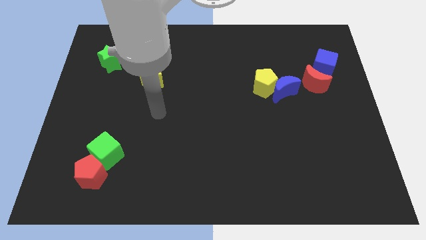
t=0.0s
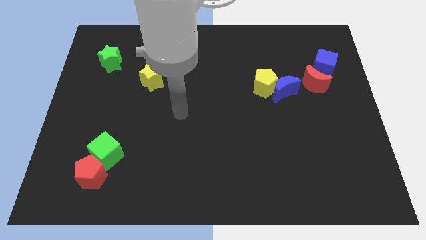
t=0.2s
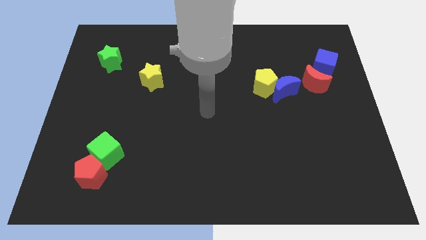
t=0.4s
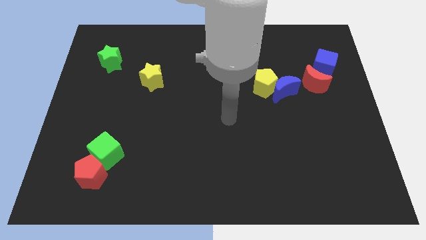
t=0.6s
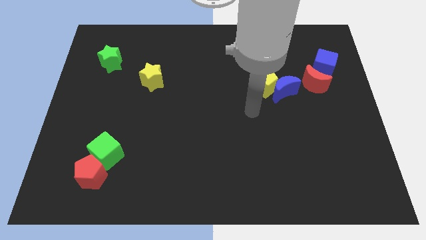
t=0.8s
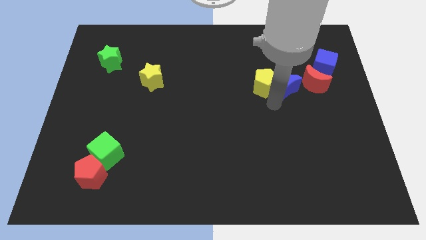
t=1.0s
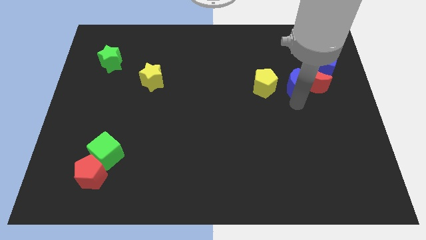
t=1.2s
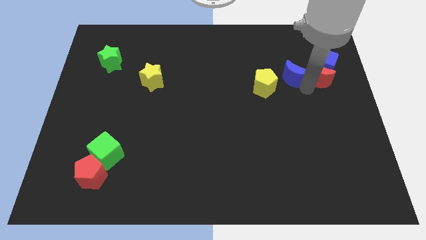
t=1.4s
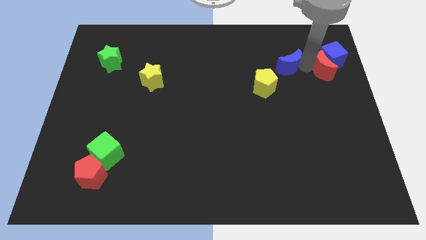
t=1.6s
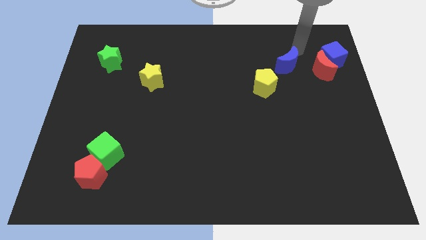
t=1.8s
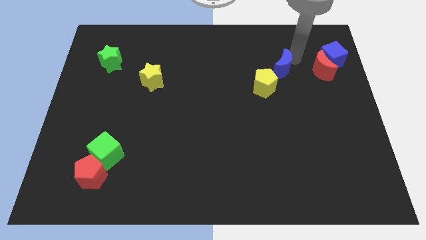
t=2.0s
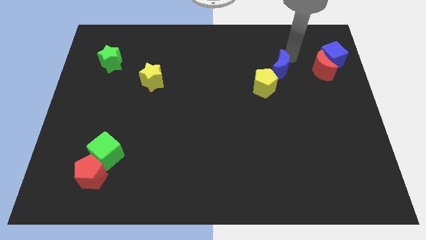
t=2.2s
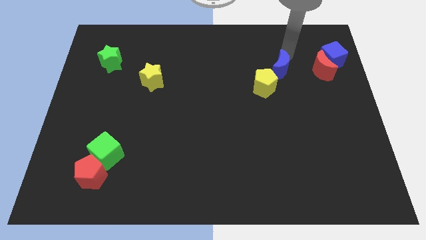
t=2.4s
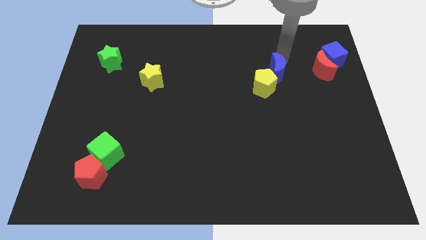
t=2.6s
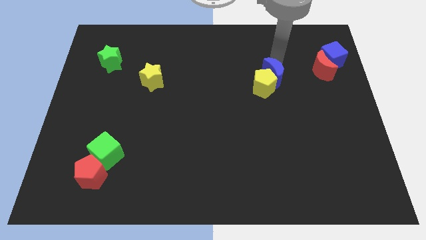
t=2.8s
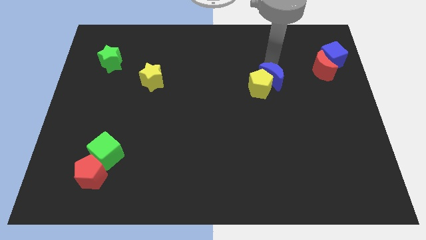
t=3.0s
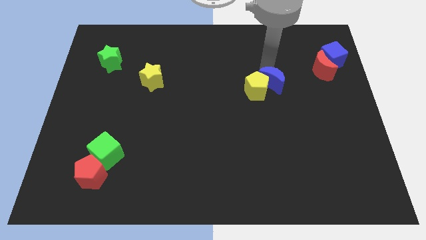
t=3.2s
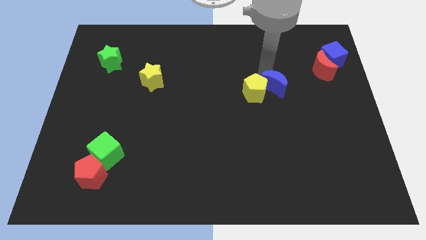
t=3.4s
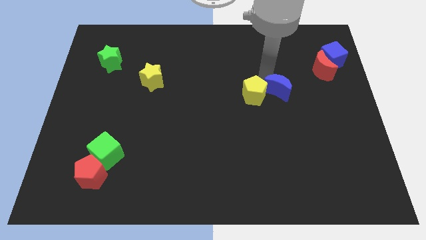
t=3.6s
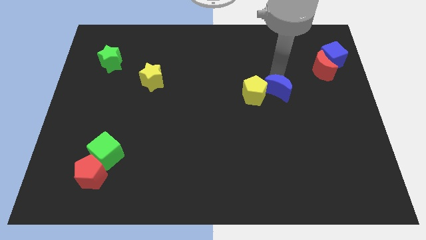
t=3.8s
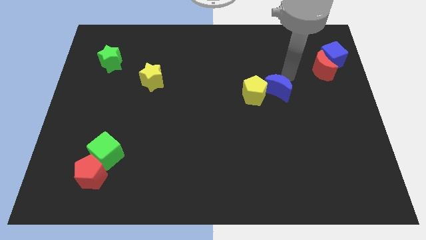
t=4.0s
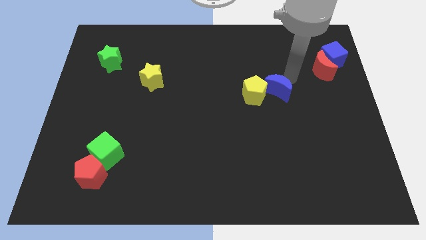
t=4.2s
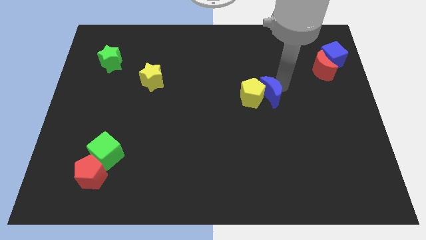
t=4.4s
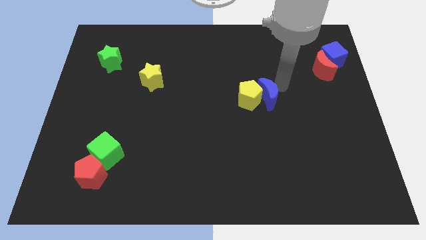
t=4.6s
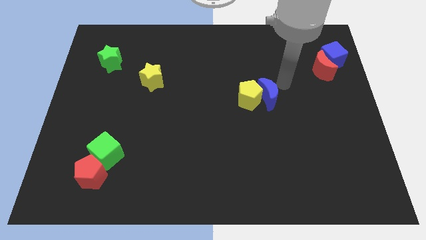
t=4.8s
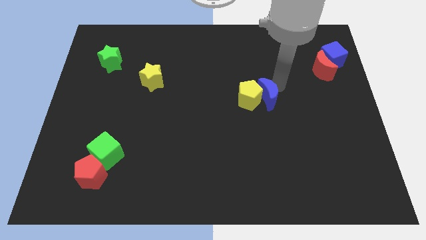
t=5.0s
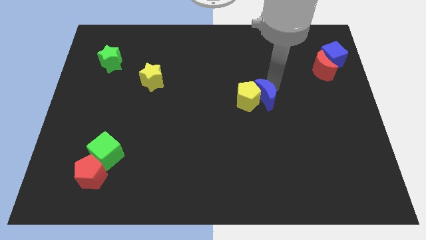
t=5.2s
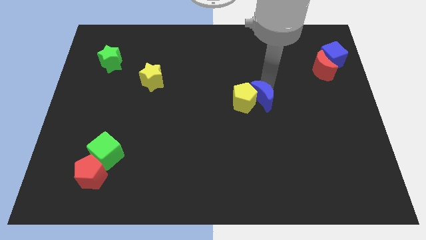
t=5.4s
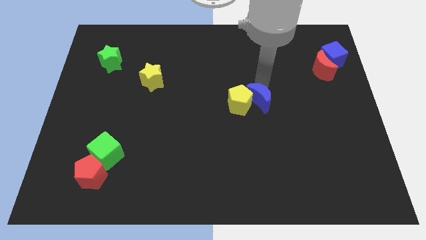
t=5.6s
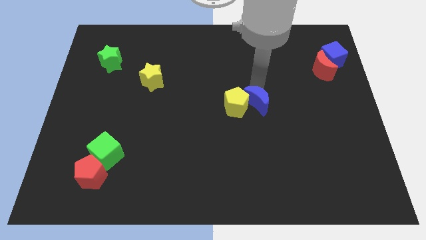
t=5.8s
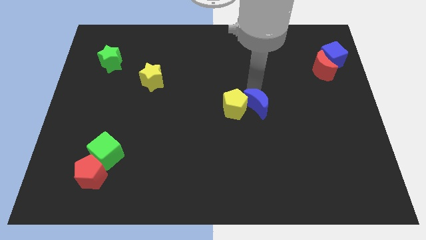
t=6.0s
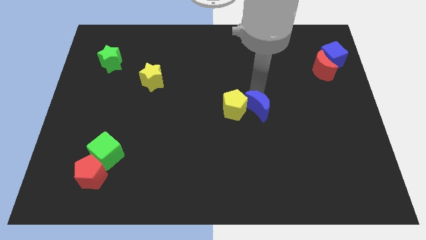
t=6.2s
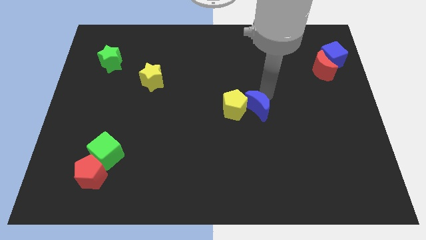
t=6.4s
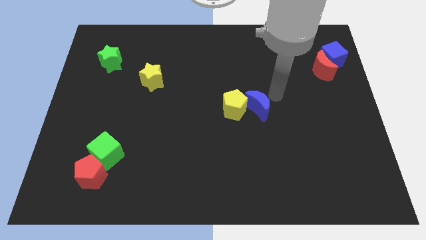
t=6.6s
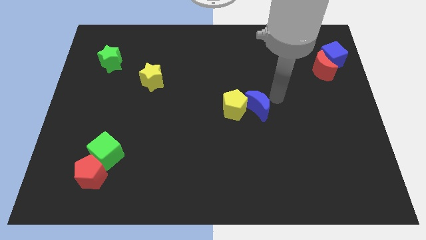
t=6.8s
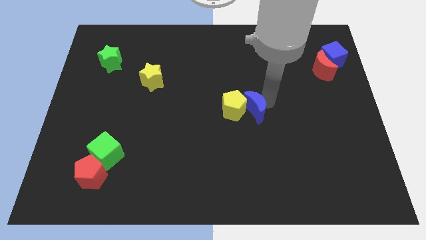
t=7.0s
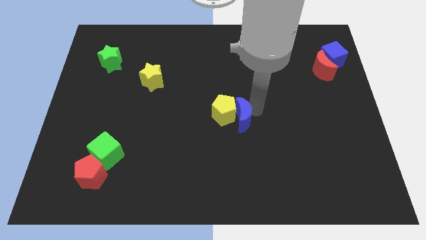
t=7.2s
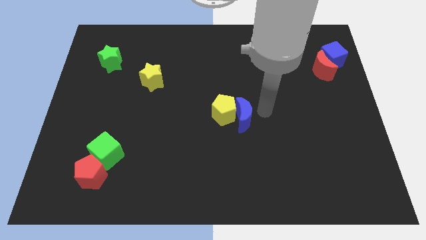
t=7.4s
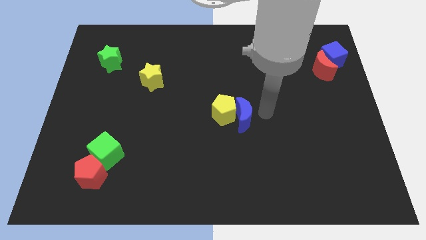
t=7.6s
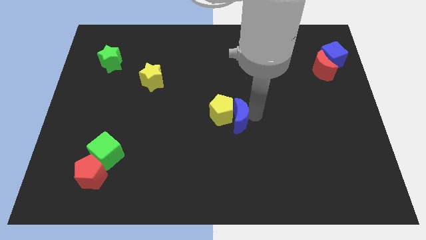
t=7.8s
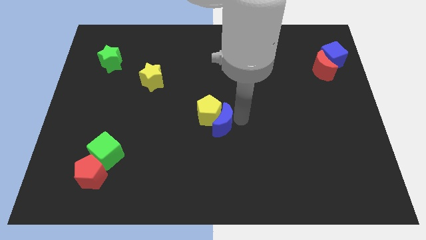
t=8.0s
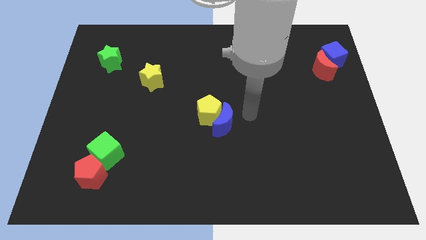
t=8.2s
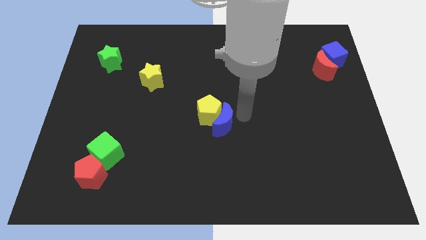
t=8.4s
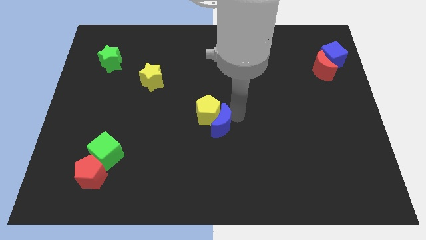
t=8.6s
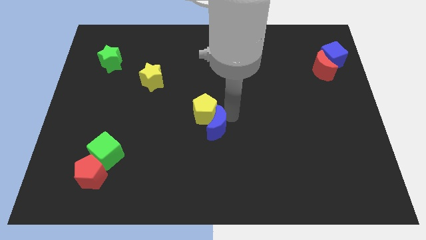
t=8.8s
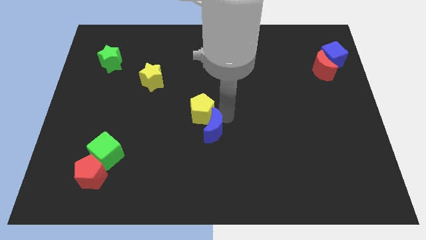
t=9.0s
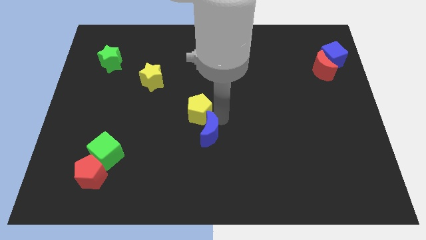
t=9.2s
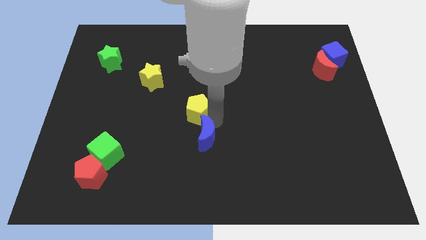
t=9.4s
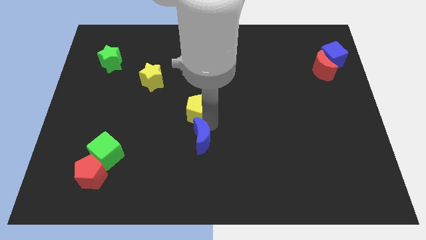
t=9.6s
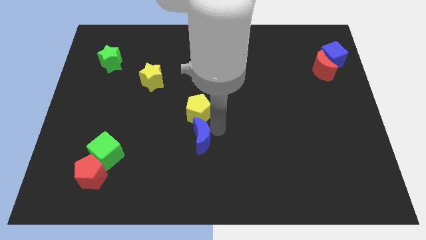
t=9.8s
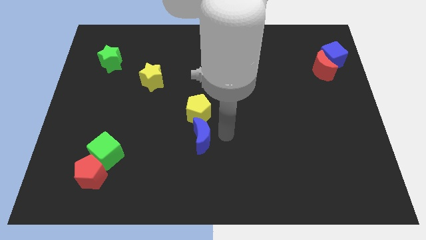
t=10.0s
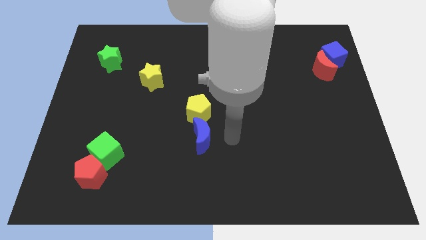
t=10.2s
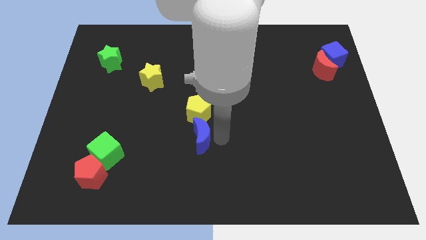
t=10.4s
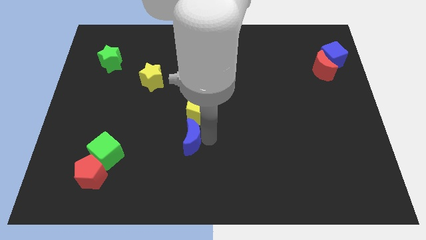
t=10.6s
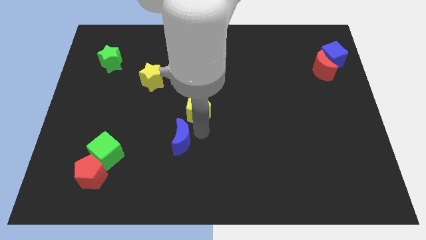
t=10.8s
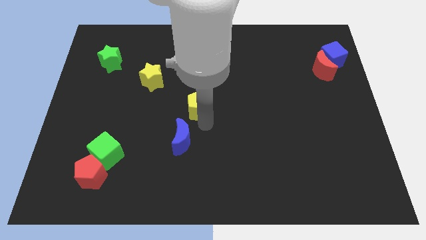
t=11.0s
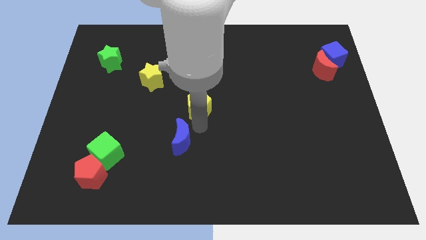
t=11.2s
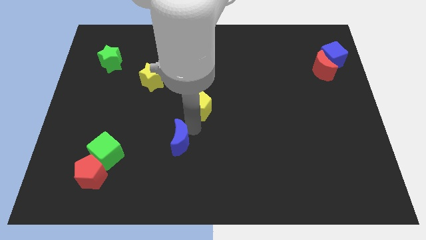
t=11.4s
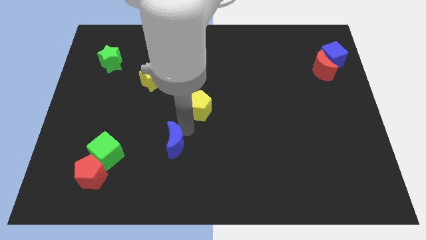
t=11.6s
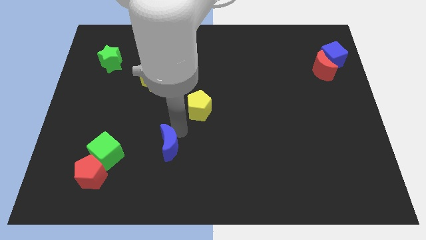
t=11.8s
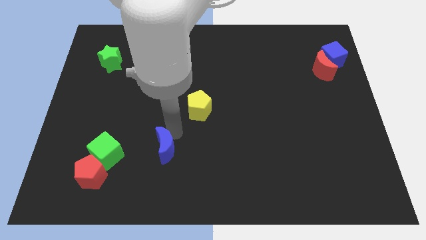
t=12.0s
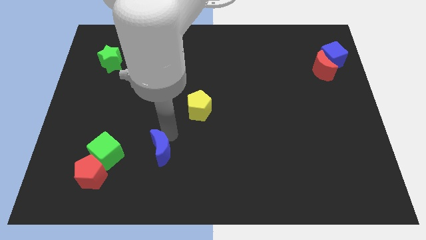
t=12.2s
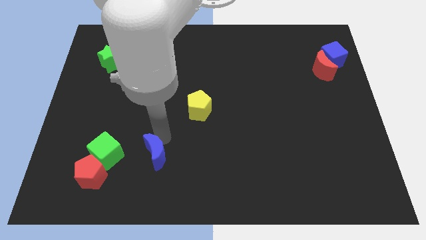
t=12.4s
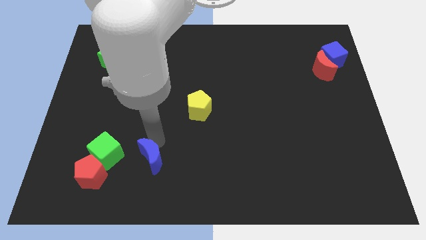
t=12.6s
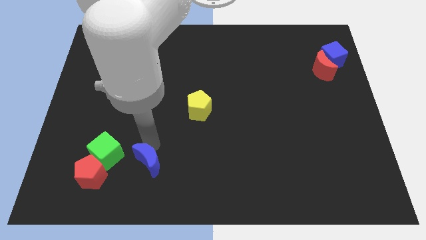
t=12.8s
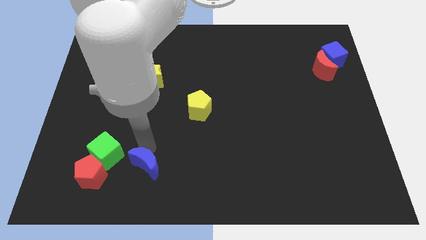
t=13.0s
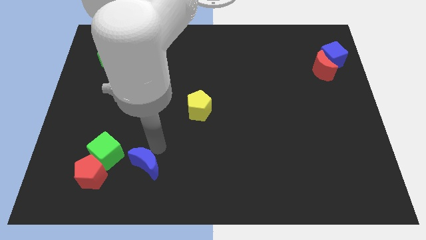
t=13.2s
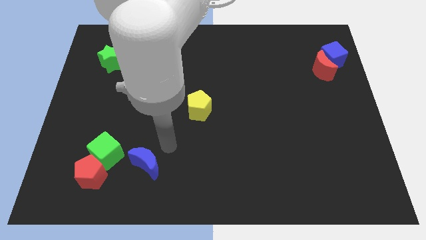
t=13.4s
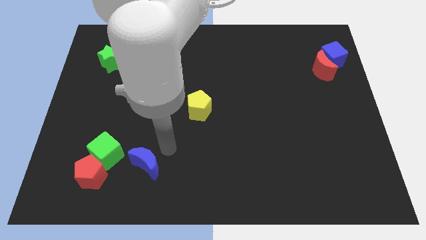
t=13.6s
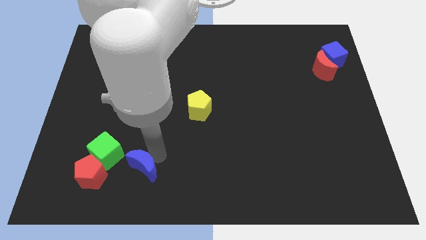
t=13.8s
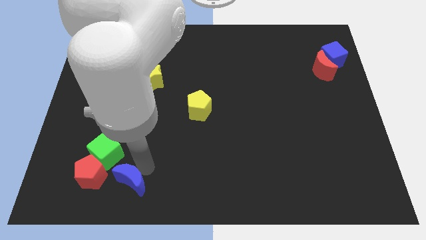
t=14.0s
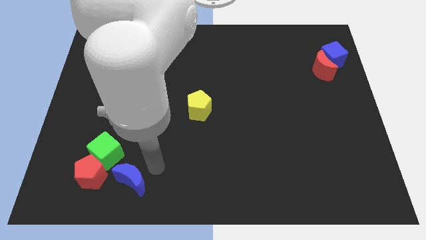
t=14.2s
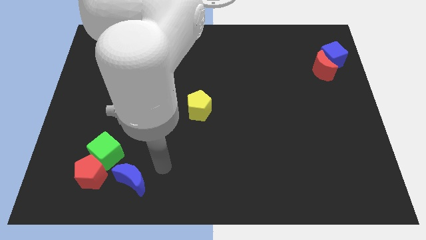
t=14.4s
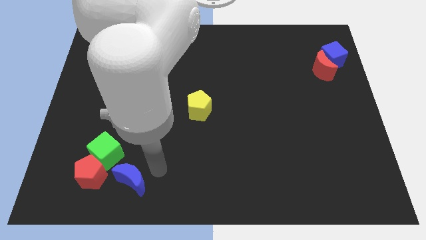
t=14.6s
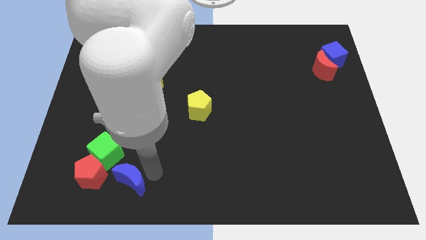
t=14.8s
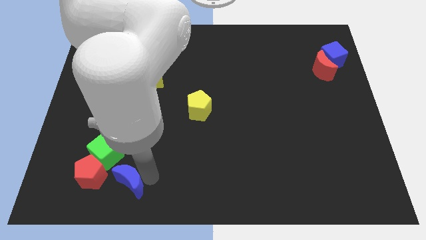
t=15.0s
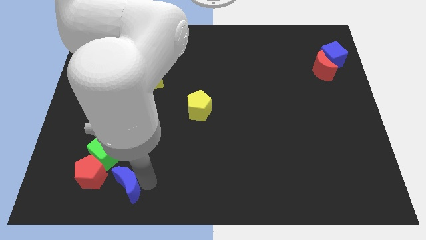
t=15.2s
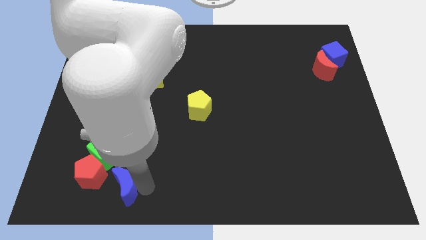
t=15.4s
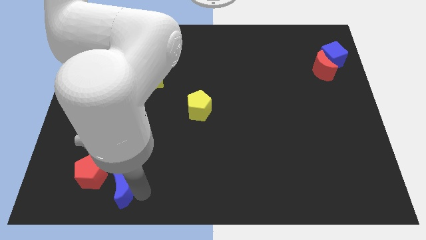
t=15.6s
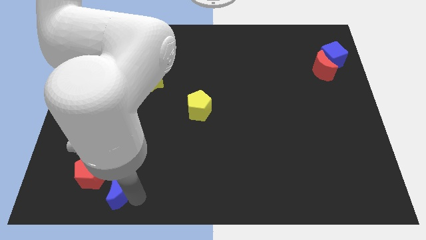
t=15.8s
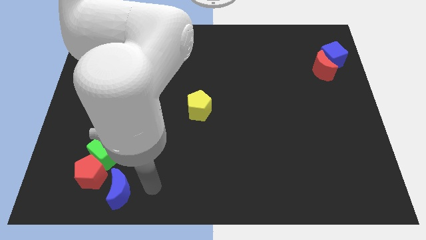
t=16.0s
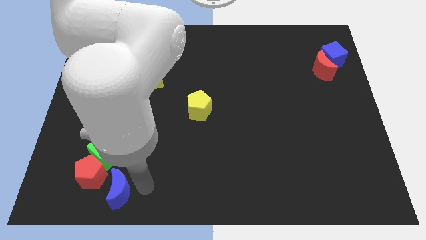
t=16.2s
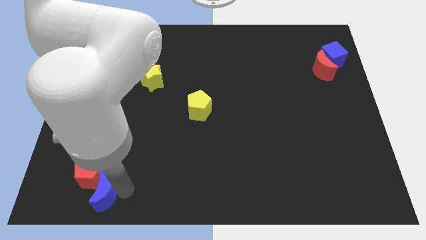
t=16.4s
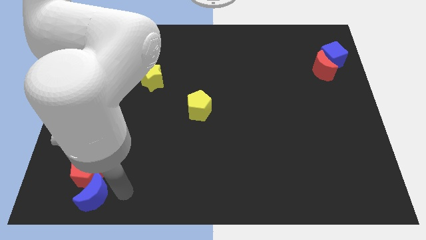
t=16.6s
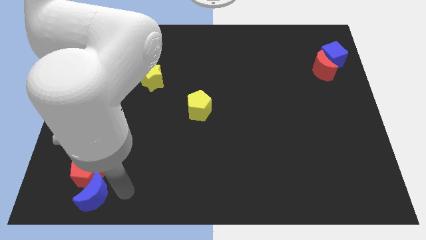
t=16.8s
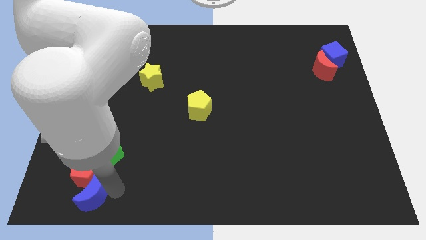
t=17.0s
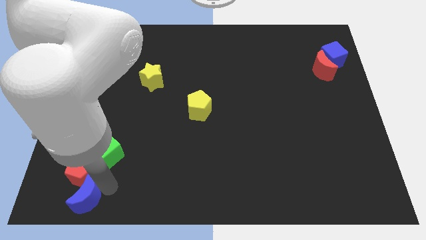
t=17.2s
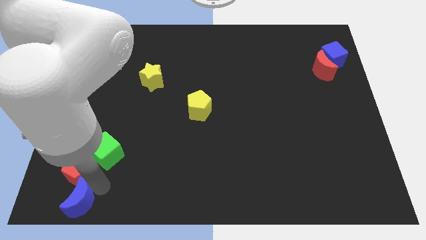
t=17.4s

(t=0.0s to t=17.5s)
move the blue moon to the bottom left corner
